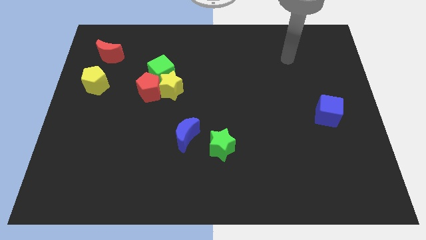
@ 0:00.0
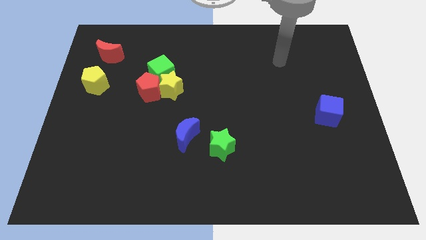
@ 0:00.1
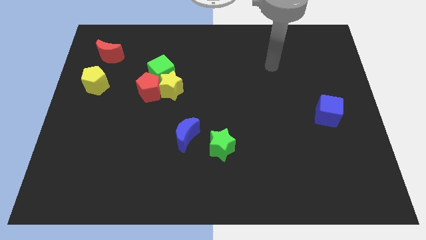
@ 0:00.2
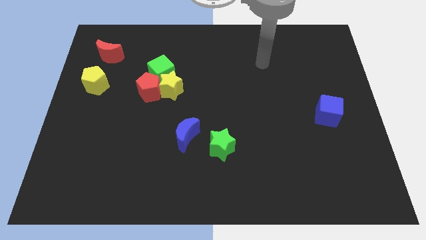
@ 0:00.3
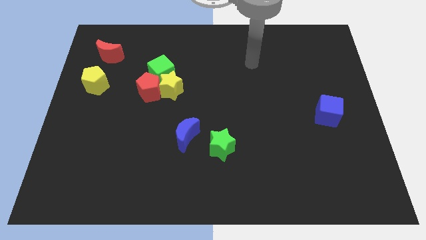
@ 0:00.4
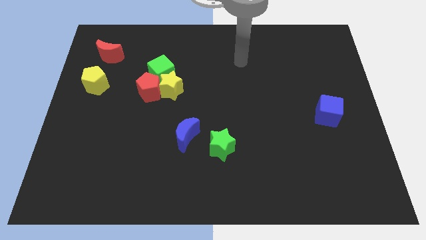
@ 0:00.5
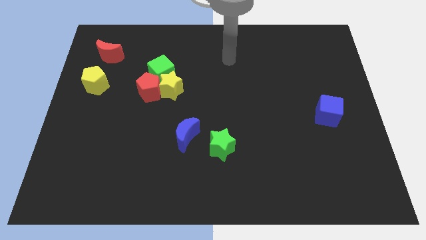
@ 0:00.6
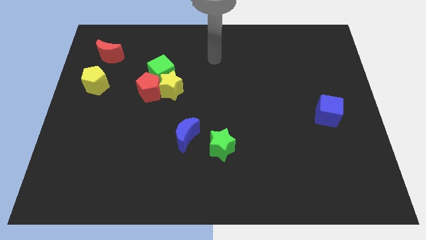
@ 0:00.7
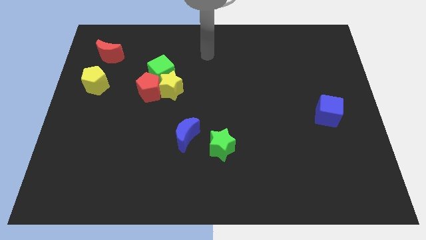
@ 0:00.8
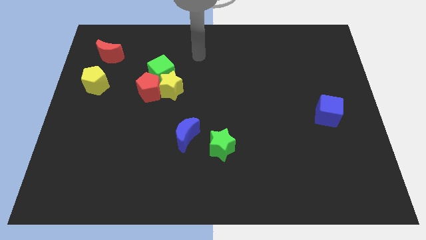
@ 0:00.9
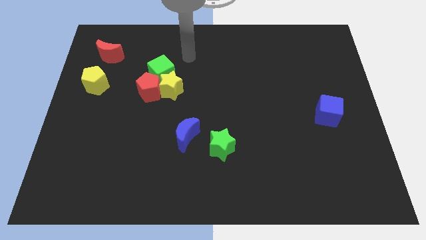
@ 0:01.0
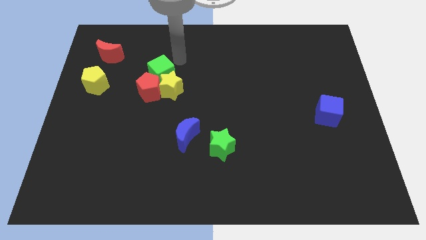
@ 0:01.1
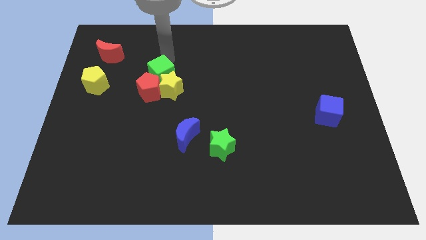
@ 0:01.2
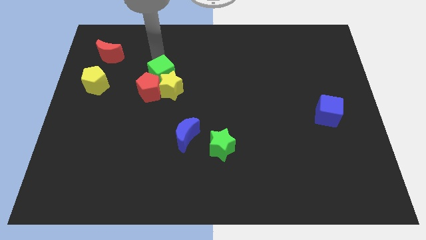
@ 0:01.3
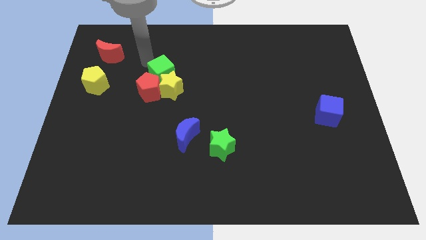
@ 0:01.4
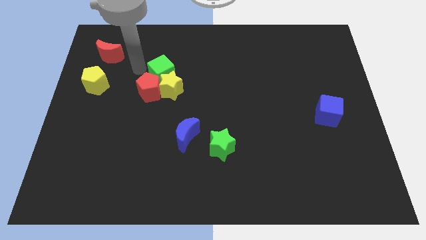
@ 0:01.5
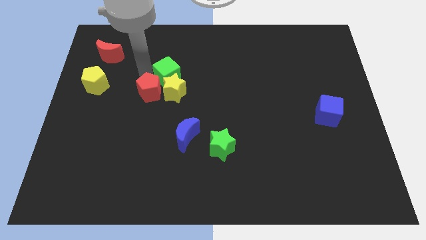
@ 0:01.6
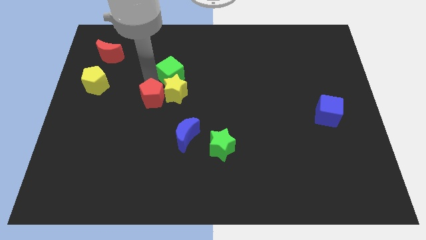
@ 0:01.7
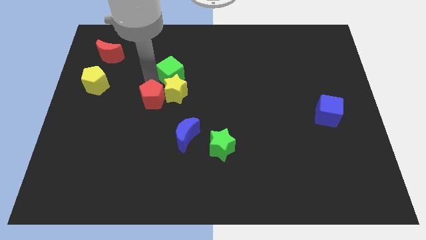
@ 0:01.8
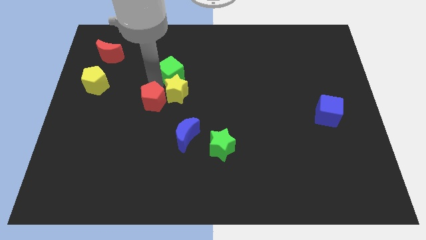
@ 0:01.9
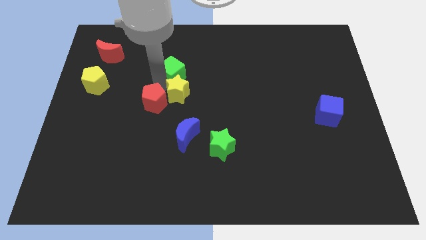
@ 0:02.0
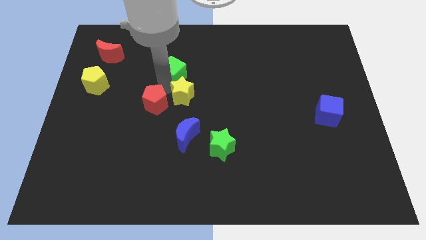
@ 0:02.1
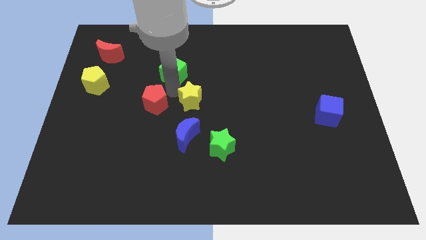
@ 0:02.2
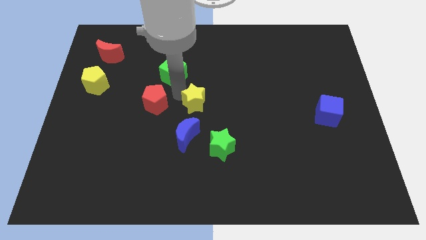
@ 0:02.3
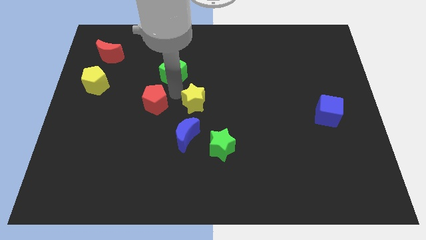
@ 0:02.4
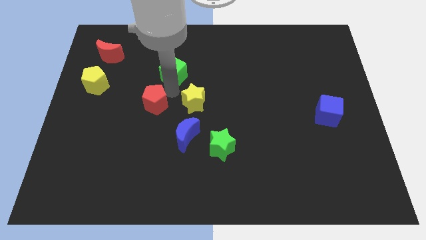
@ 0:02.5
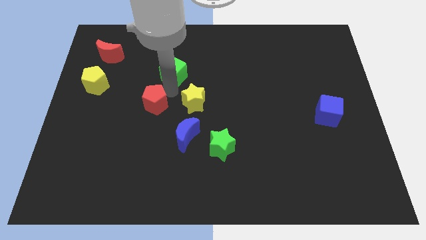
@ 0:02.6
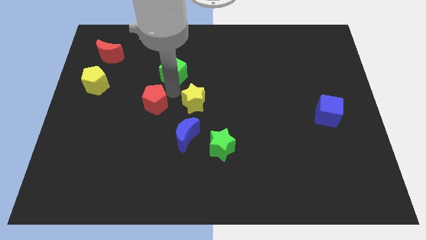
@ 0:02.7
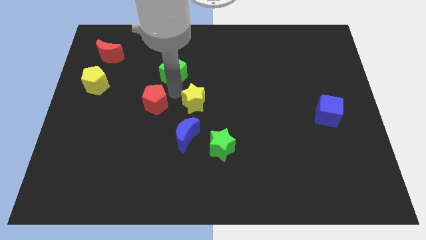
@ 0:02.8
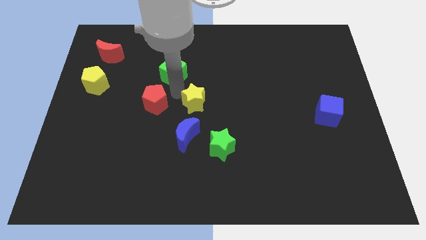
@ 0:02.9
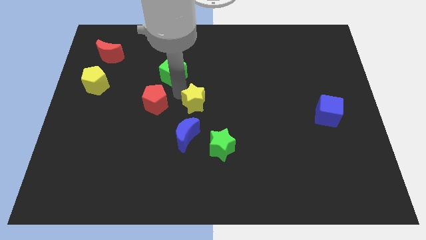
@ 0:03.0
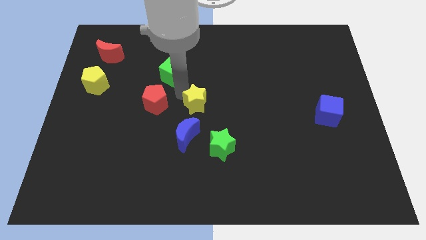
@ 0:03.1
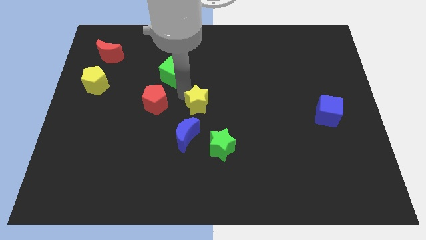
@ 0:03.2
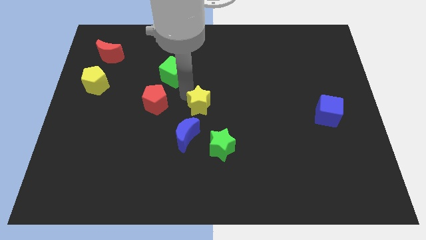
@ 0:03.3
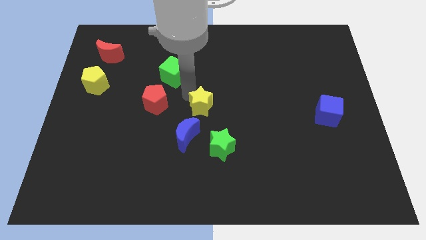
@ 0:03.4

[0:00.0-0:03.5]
move the yellow star away from the red pentagon and green cube

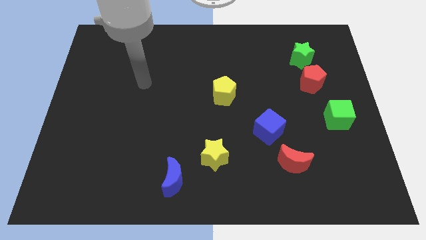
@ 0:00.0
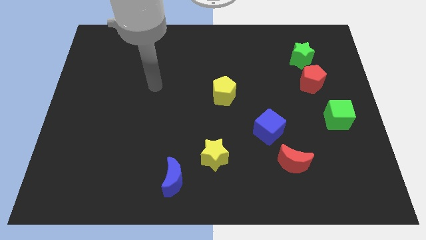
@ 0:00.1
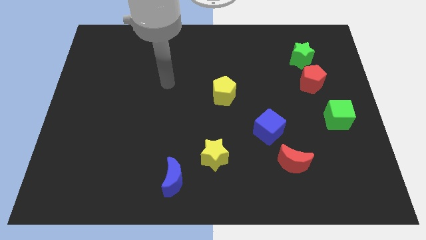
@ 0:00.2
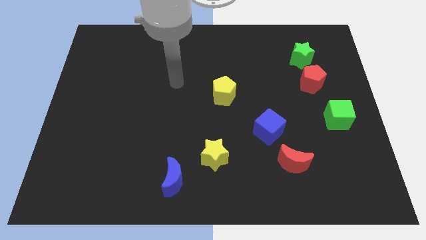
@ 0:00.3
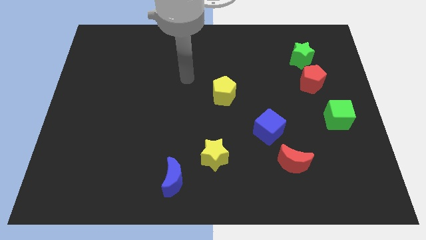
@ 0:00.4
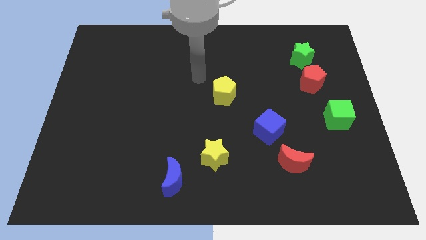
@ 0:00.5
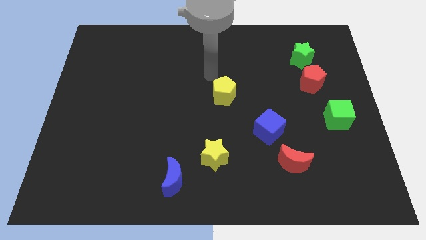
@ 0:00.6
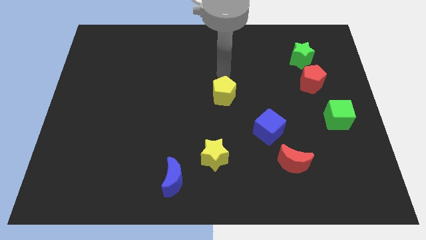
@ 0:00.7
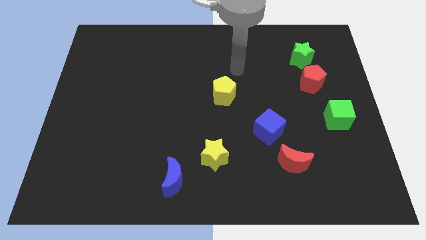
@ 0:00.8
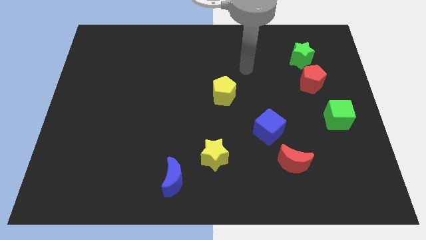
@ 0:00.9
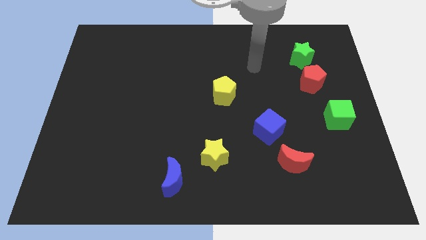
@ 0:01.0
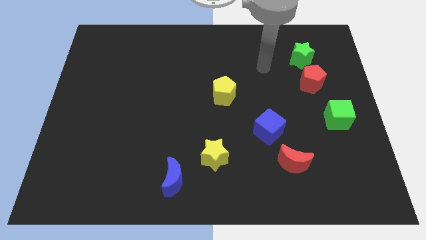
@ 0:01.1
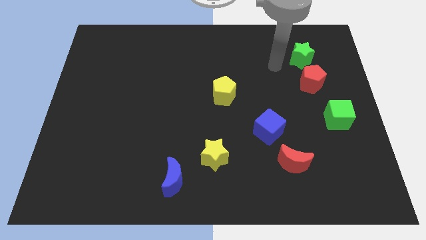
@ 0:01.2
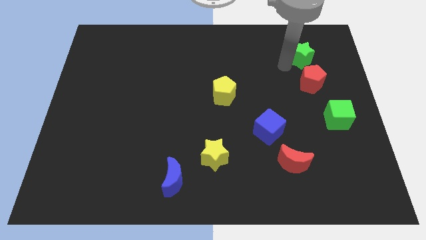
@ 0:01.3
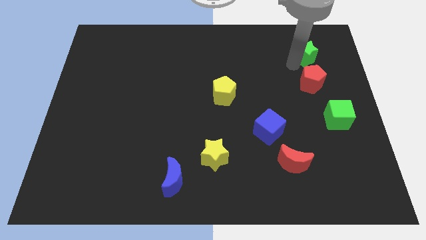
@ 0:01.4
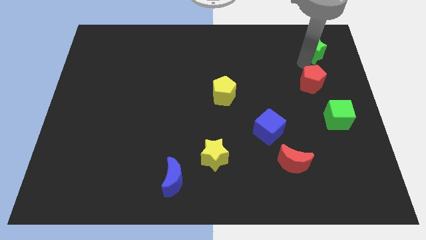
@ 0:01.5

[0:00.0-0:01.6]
separate the red pentagon from the green star

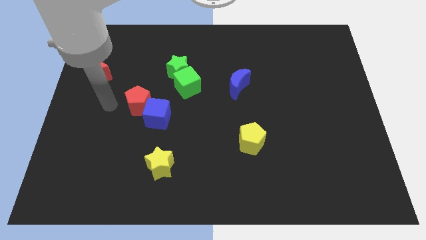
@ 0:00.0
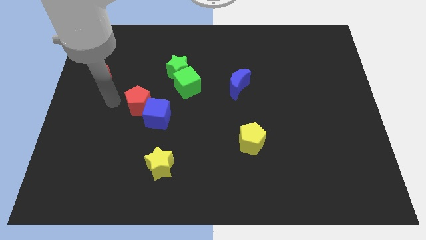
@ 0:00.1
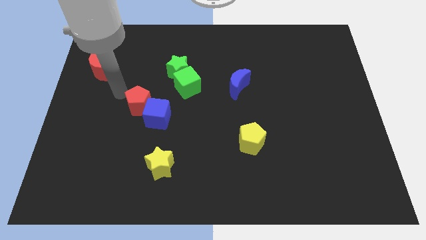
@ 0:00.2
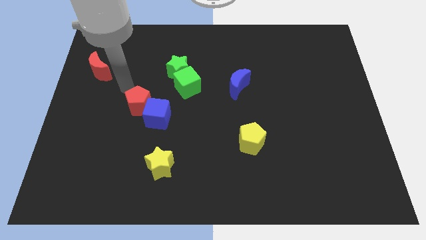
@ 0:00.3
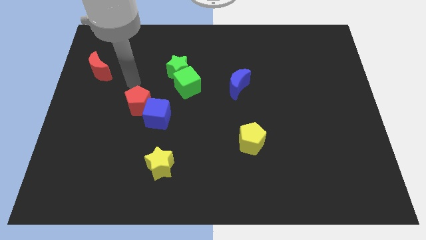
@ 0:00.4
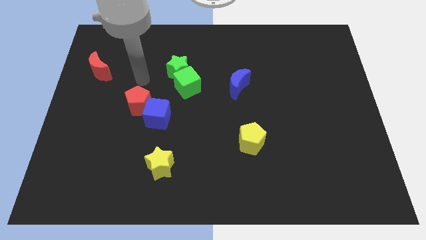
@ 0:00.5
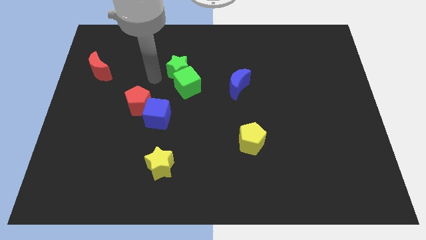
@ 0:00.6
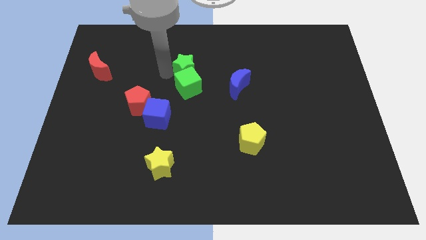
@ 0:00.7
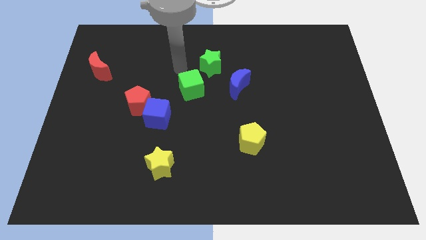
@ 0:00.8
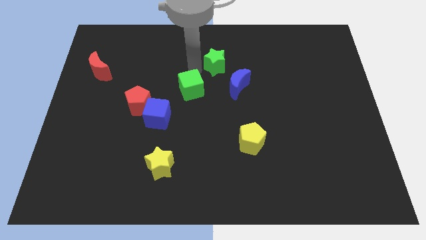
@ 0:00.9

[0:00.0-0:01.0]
separate the green cube from the green star

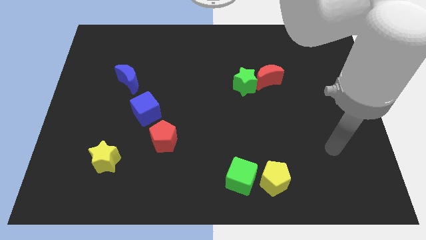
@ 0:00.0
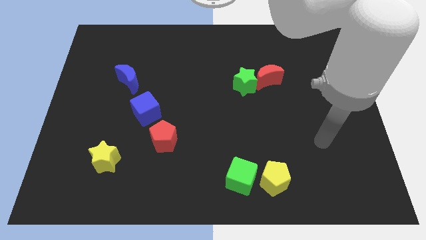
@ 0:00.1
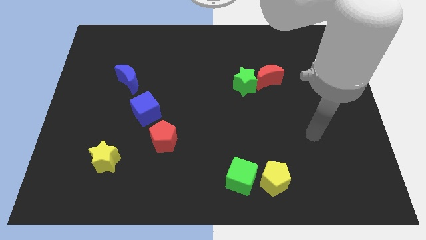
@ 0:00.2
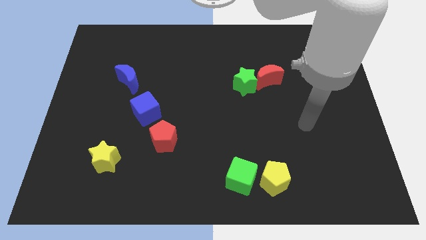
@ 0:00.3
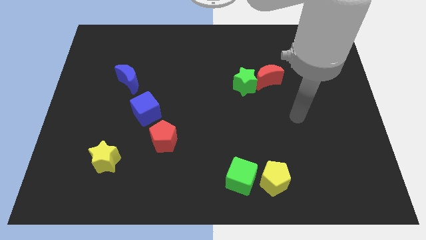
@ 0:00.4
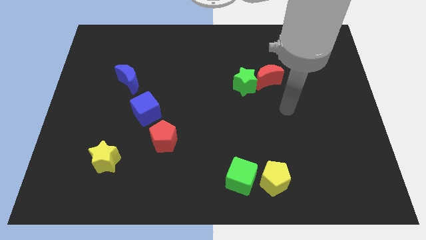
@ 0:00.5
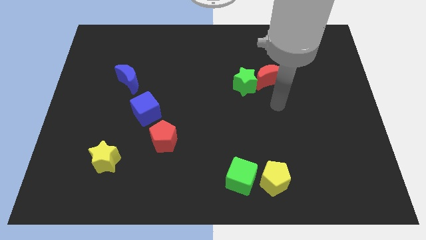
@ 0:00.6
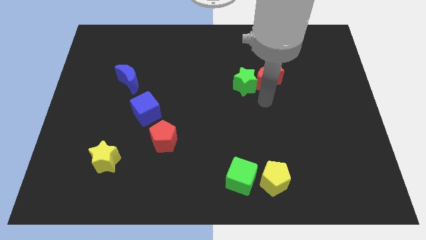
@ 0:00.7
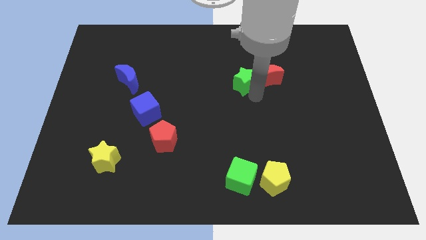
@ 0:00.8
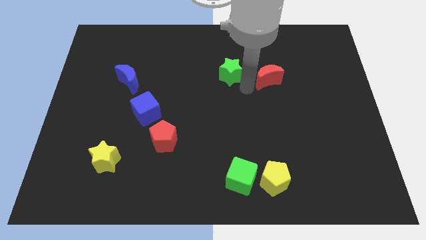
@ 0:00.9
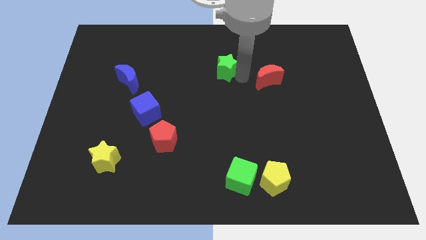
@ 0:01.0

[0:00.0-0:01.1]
move the red moon away from the green star

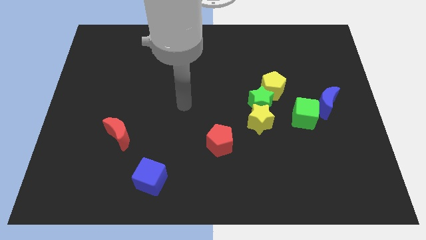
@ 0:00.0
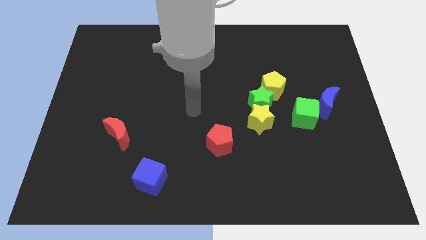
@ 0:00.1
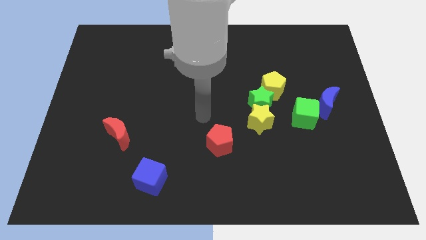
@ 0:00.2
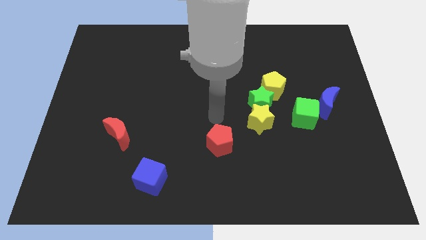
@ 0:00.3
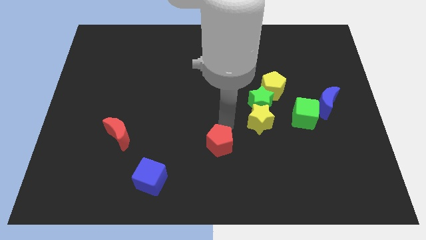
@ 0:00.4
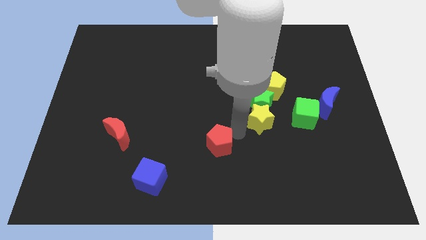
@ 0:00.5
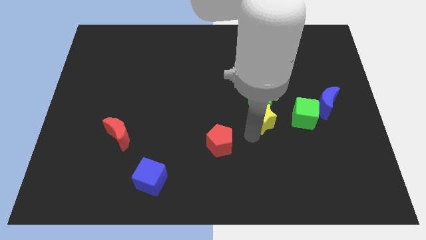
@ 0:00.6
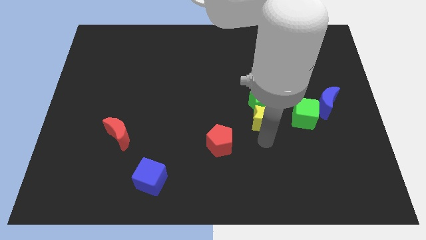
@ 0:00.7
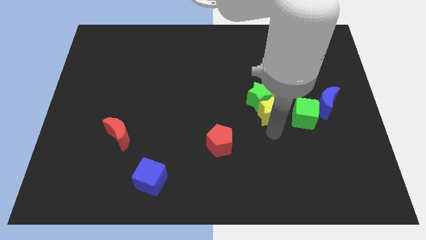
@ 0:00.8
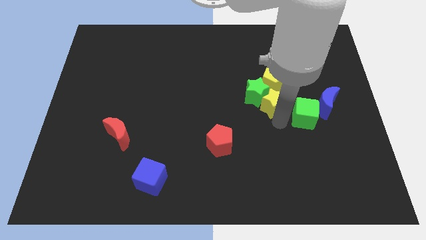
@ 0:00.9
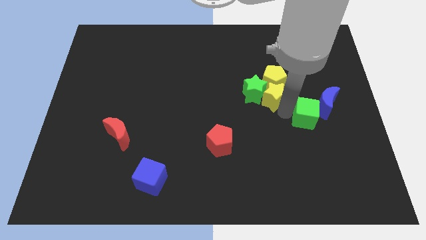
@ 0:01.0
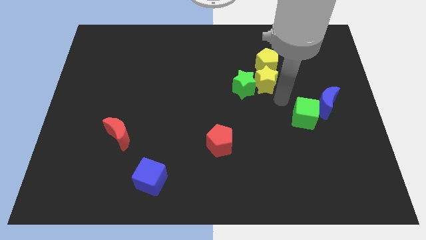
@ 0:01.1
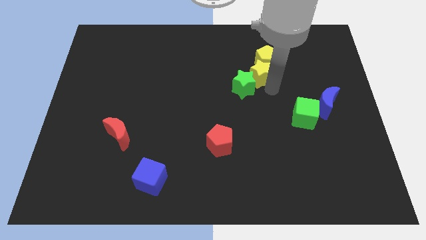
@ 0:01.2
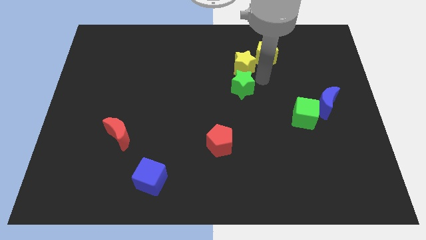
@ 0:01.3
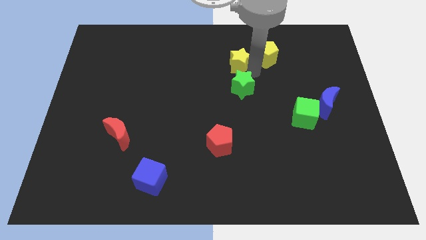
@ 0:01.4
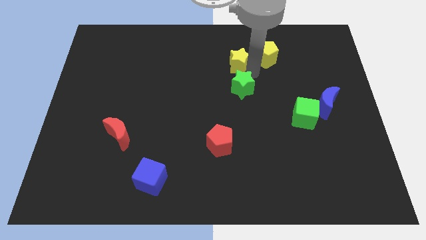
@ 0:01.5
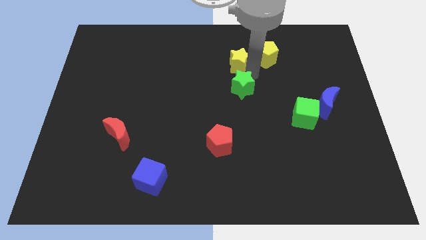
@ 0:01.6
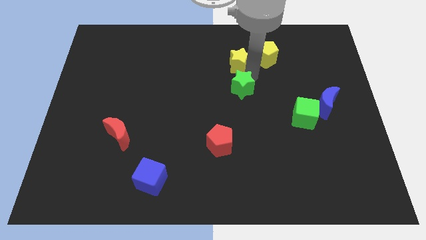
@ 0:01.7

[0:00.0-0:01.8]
separate the green star from the yellow star and yellow pentagon

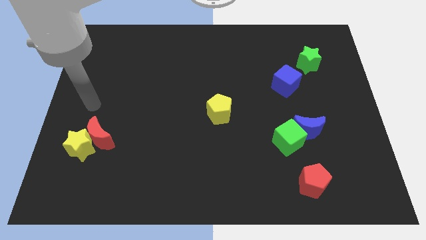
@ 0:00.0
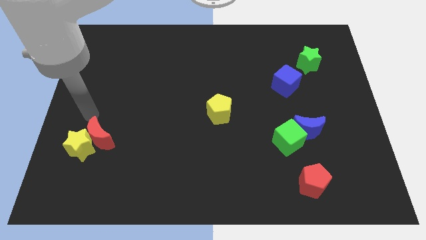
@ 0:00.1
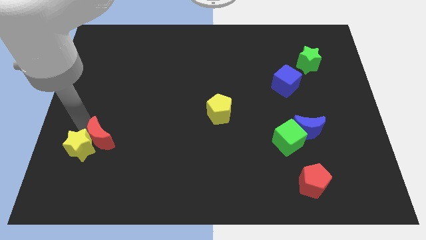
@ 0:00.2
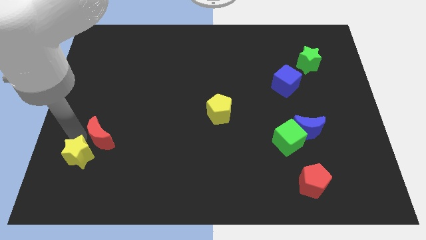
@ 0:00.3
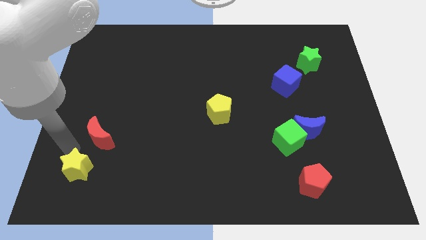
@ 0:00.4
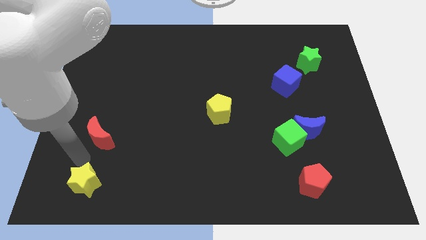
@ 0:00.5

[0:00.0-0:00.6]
separate the red moon from the yellow star
